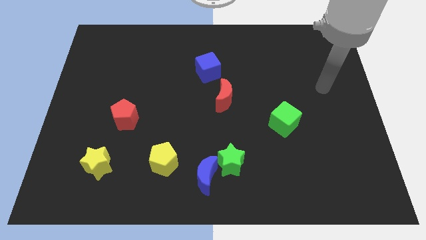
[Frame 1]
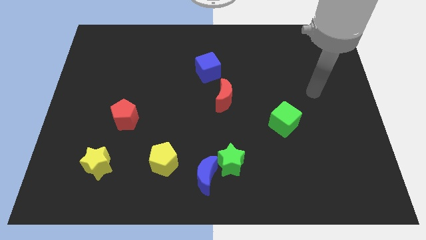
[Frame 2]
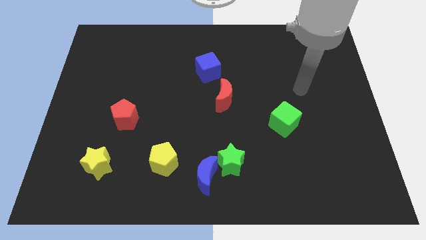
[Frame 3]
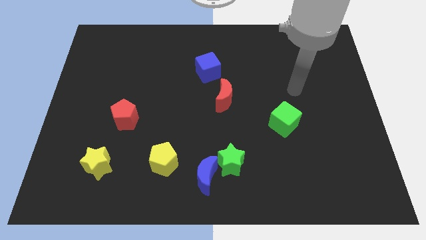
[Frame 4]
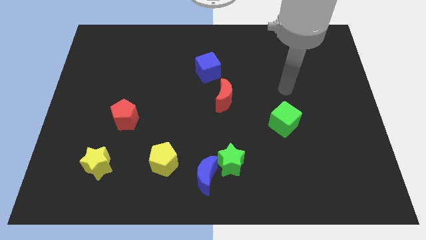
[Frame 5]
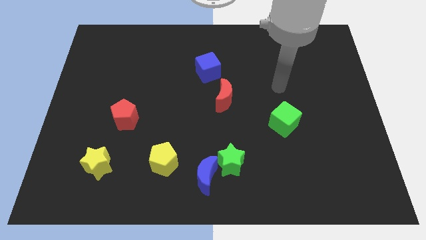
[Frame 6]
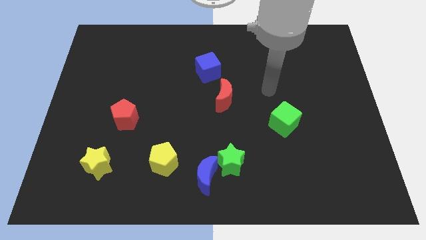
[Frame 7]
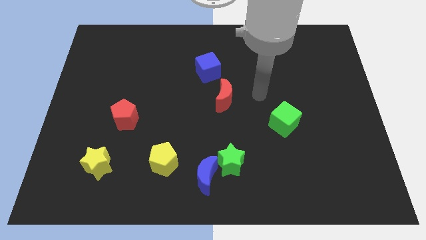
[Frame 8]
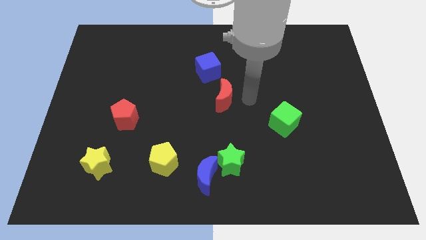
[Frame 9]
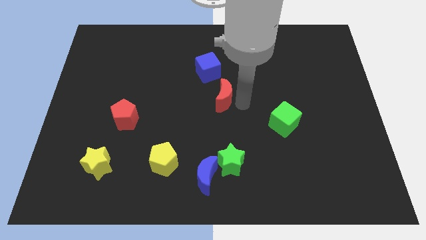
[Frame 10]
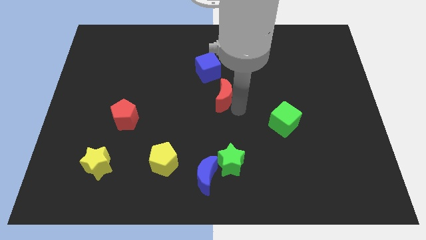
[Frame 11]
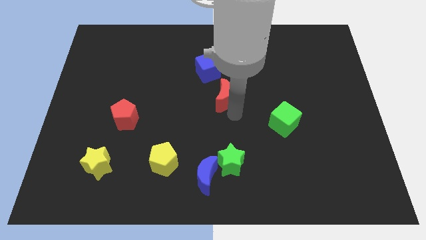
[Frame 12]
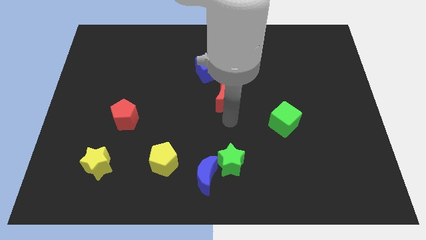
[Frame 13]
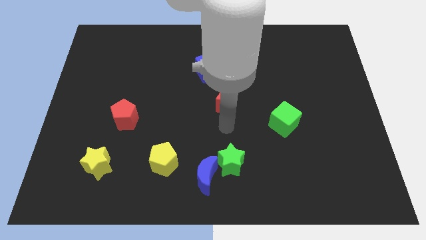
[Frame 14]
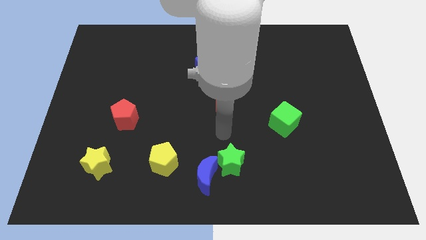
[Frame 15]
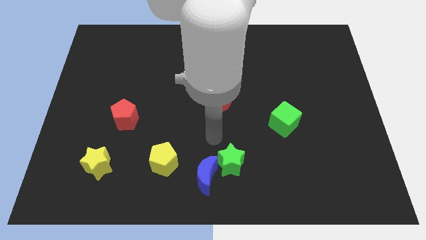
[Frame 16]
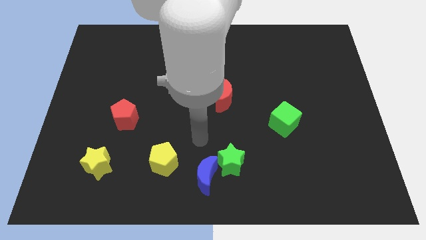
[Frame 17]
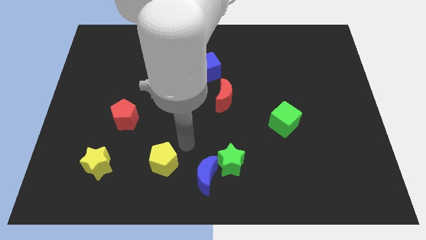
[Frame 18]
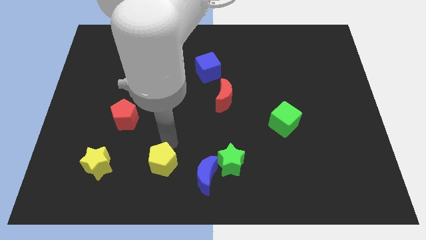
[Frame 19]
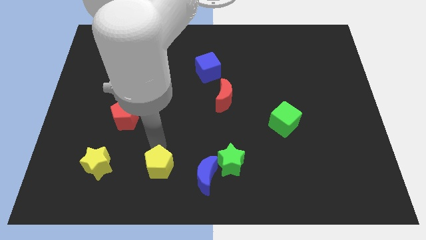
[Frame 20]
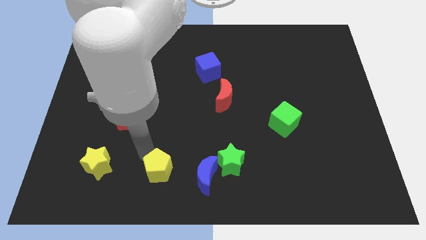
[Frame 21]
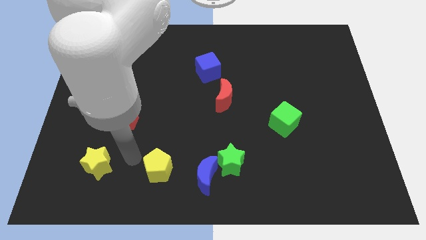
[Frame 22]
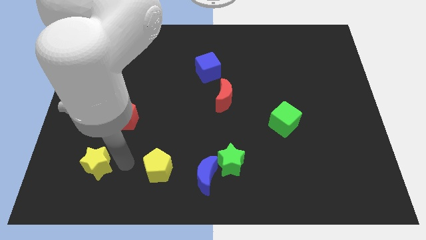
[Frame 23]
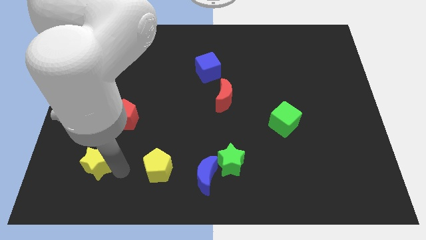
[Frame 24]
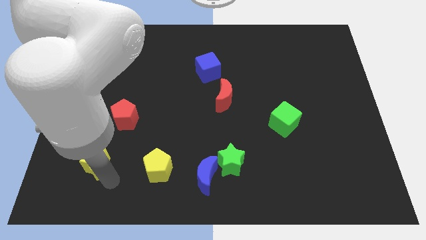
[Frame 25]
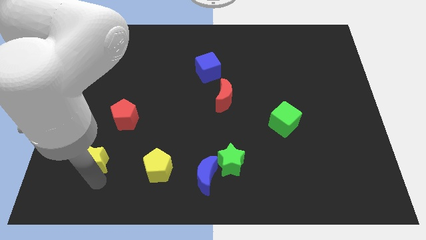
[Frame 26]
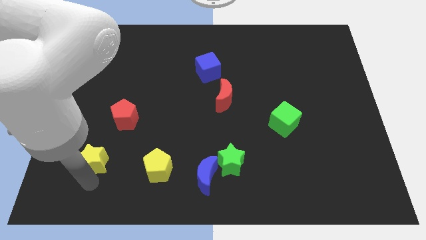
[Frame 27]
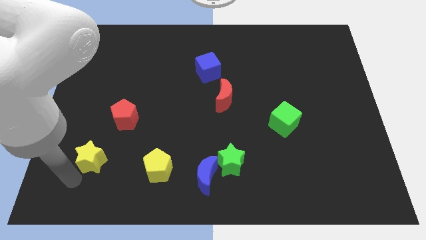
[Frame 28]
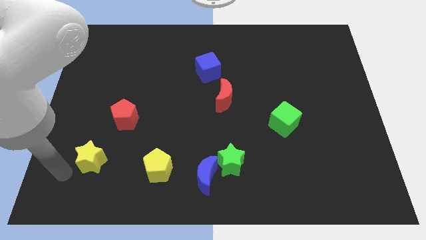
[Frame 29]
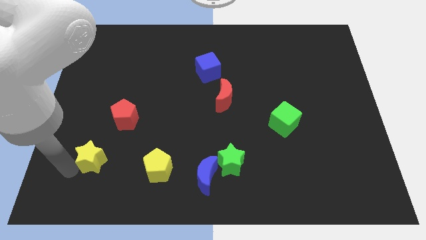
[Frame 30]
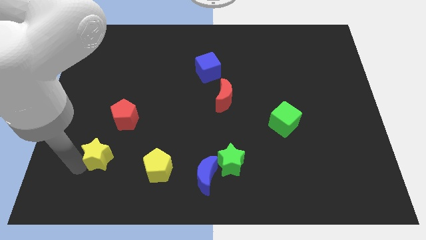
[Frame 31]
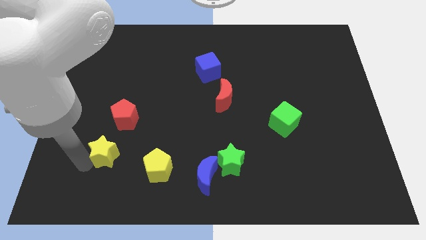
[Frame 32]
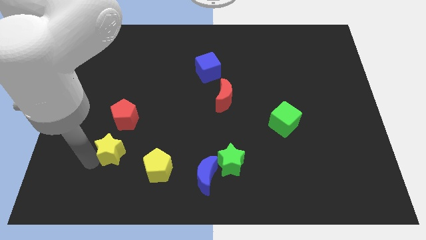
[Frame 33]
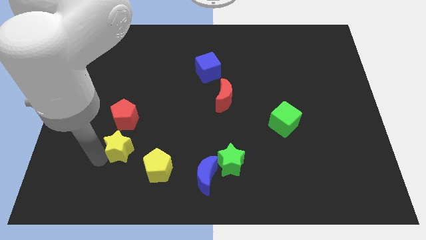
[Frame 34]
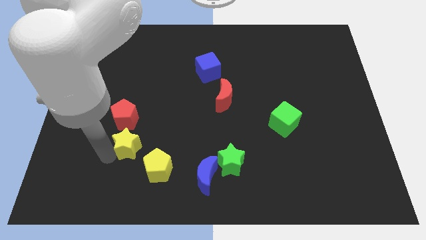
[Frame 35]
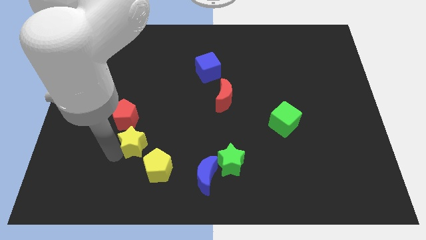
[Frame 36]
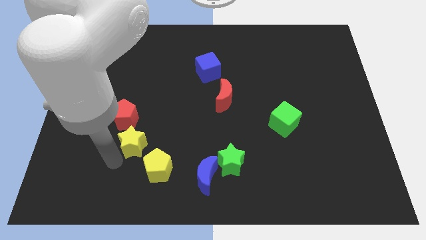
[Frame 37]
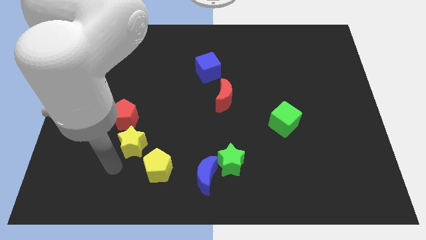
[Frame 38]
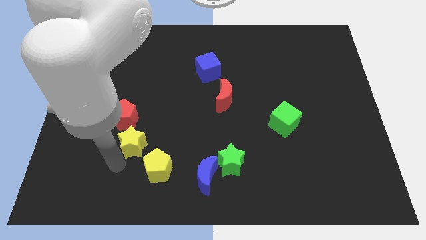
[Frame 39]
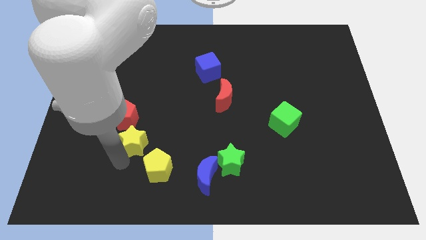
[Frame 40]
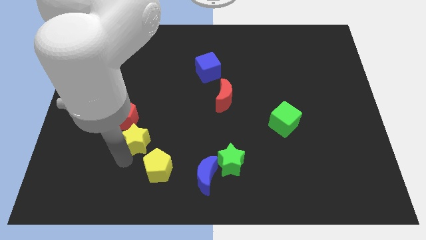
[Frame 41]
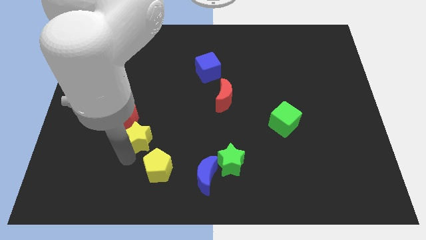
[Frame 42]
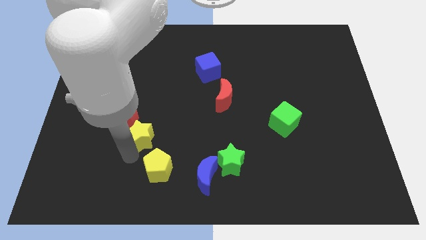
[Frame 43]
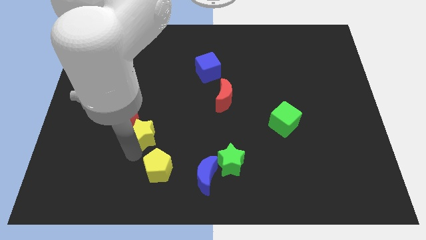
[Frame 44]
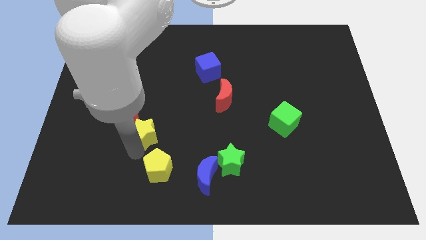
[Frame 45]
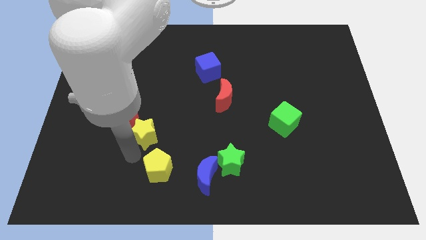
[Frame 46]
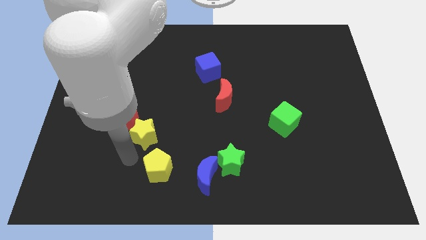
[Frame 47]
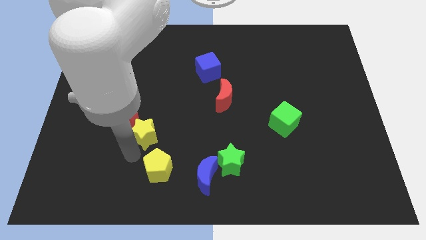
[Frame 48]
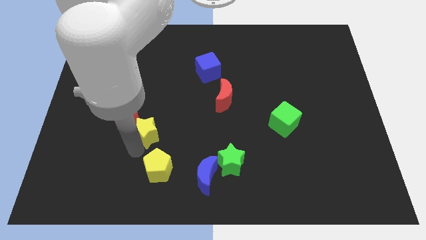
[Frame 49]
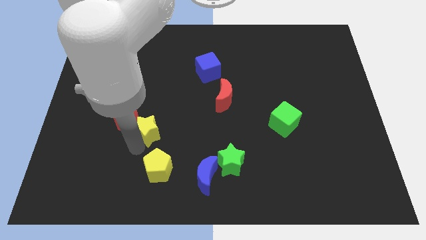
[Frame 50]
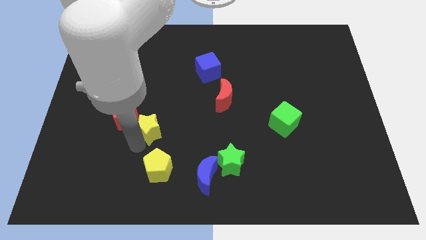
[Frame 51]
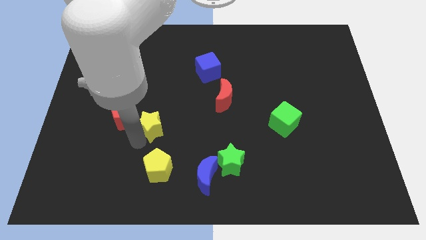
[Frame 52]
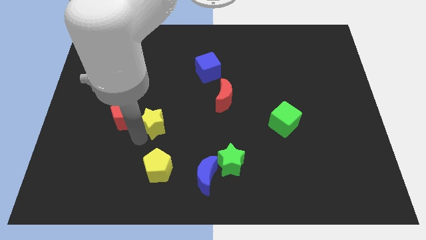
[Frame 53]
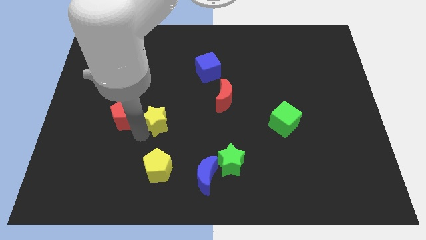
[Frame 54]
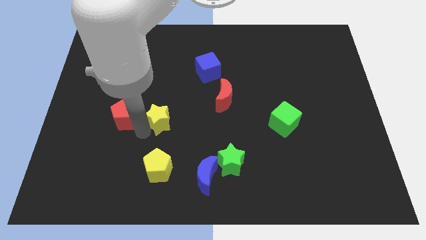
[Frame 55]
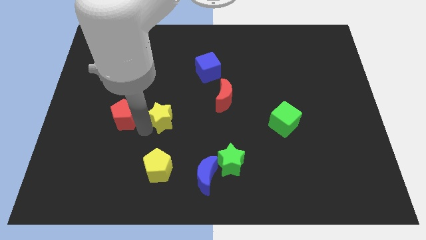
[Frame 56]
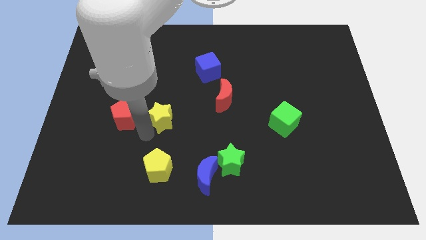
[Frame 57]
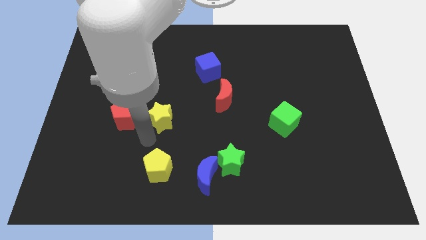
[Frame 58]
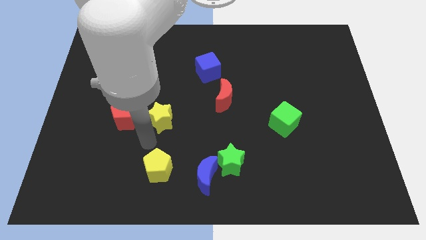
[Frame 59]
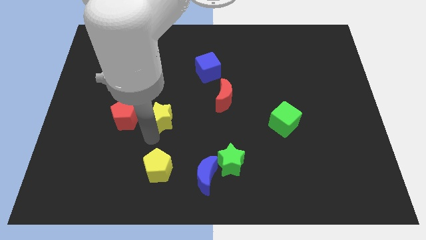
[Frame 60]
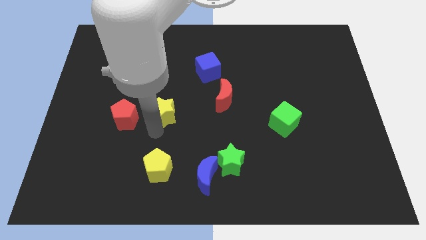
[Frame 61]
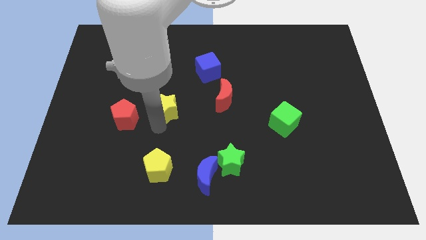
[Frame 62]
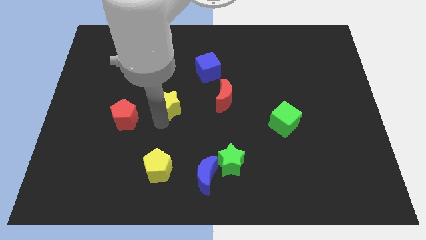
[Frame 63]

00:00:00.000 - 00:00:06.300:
move the yellow star upwards and to the right

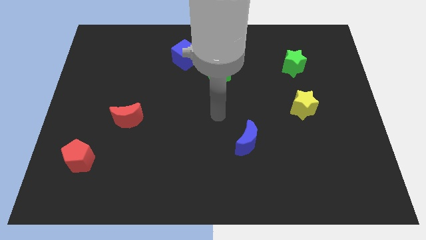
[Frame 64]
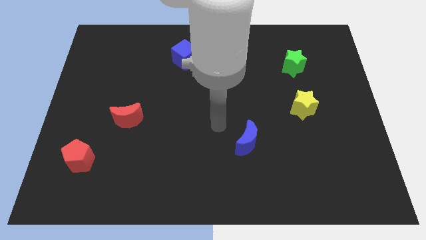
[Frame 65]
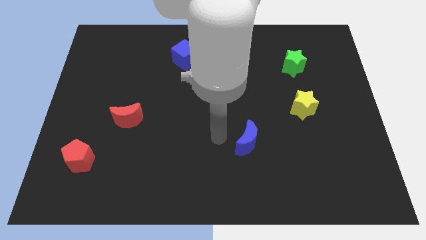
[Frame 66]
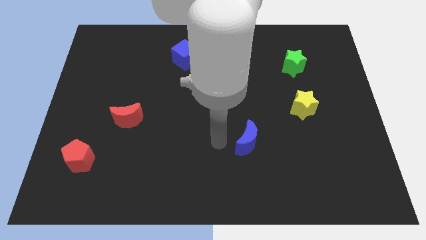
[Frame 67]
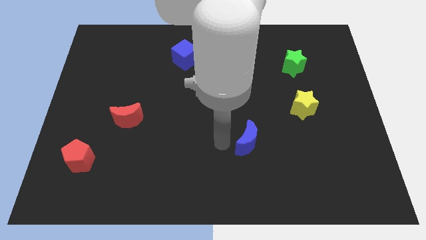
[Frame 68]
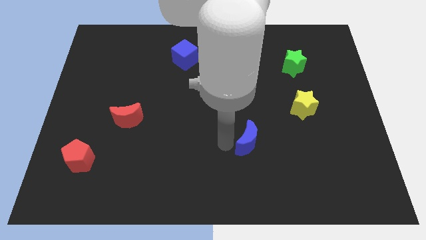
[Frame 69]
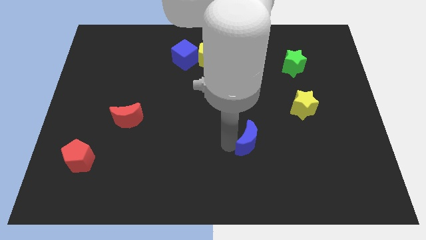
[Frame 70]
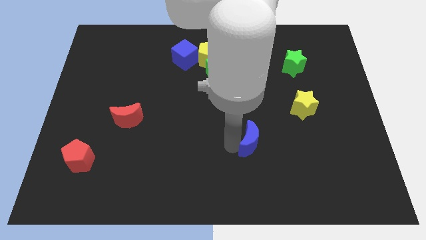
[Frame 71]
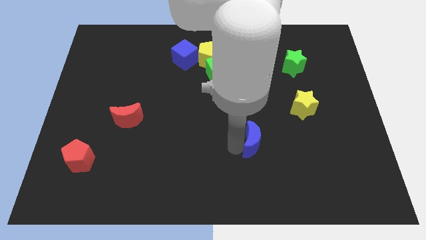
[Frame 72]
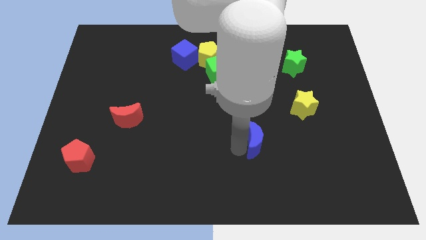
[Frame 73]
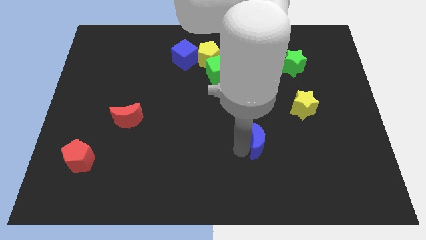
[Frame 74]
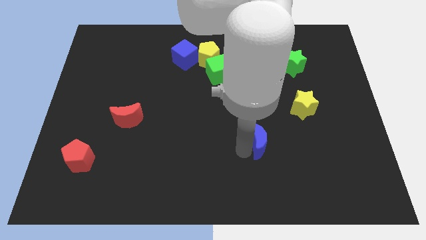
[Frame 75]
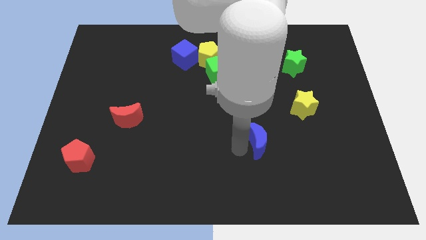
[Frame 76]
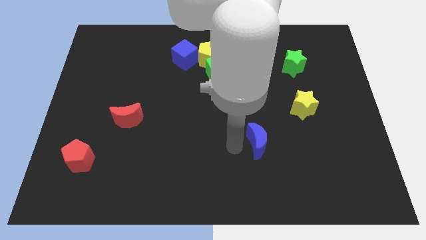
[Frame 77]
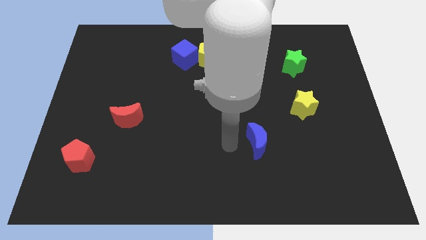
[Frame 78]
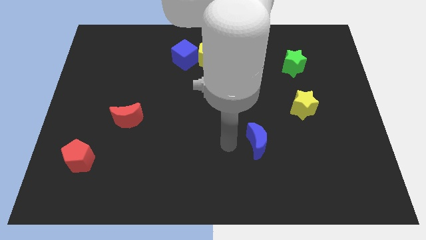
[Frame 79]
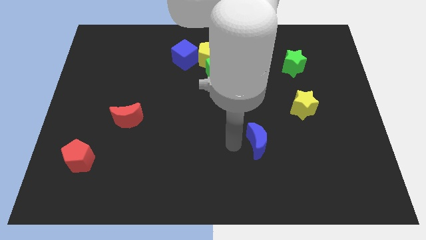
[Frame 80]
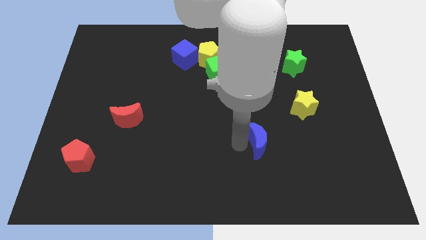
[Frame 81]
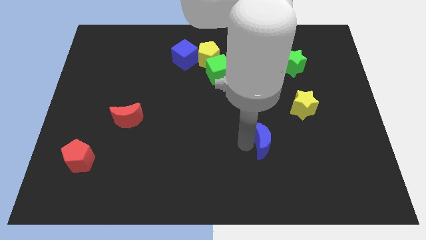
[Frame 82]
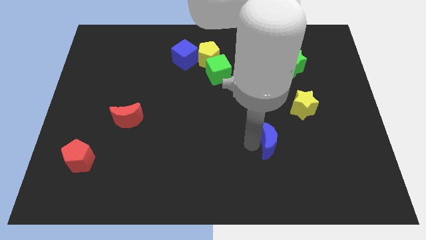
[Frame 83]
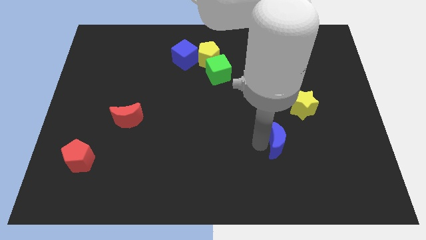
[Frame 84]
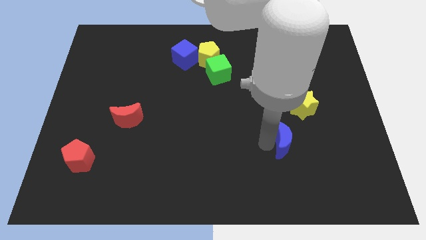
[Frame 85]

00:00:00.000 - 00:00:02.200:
slide the blue moon right a little bit
